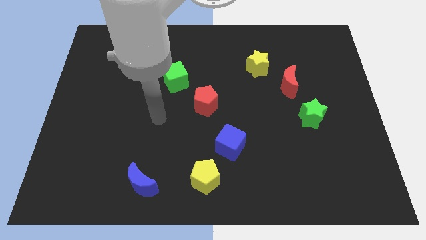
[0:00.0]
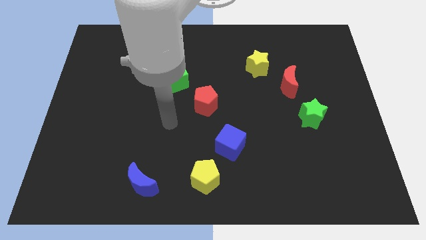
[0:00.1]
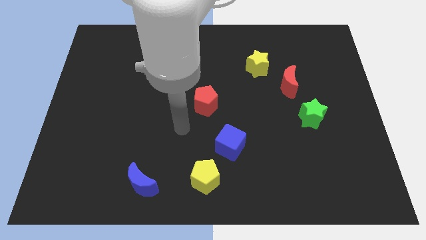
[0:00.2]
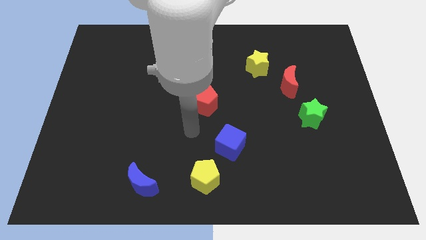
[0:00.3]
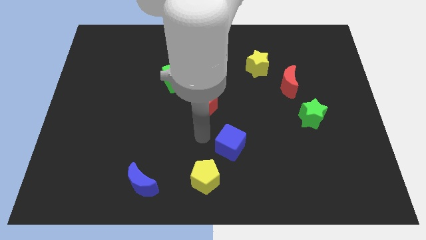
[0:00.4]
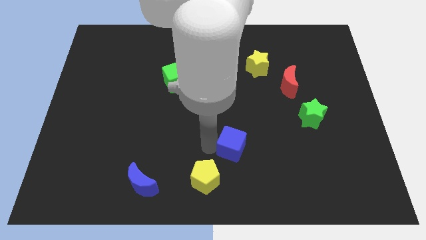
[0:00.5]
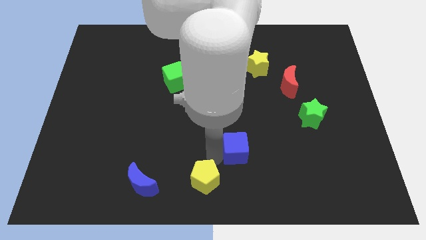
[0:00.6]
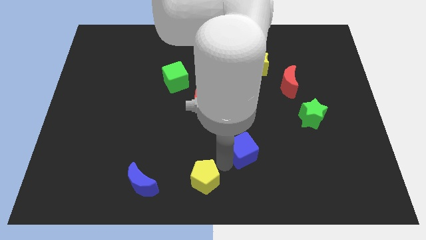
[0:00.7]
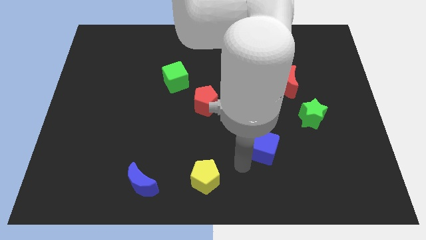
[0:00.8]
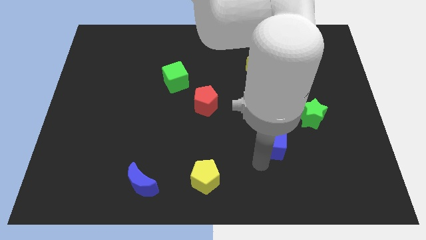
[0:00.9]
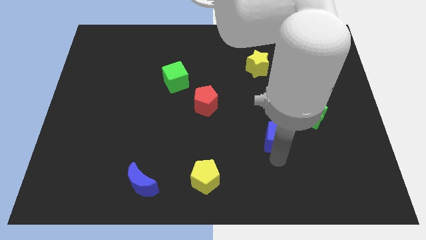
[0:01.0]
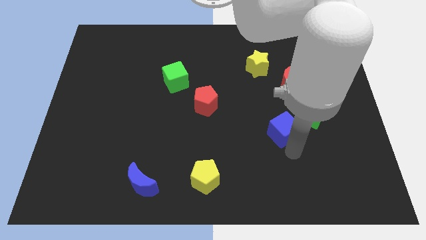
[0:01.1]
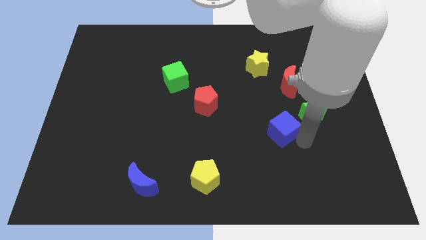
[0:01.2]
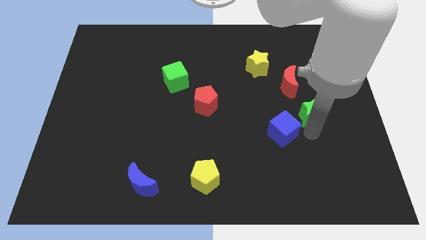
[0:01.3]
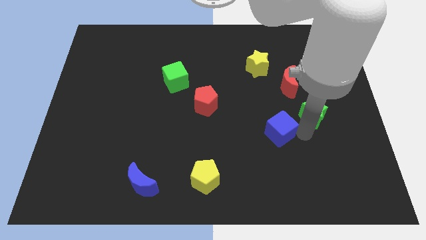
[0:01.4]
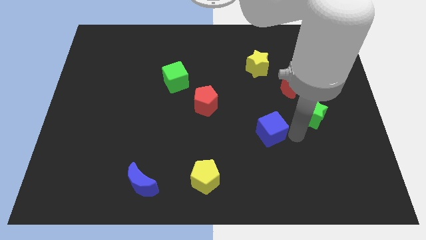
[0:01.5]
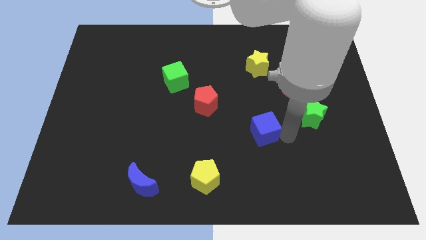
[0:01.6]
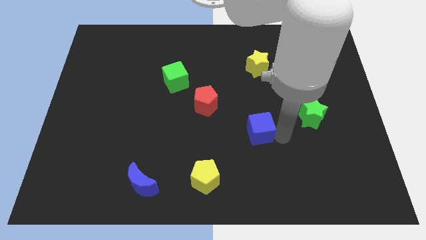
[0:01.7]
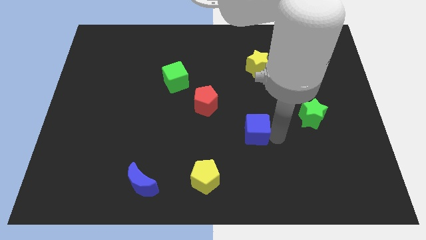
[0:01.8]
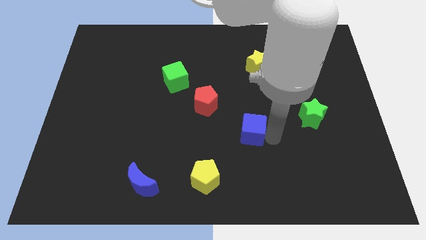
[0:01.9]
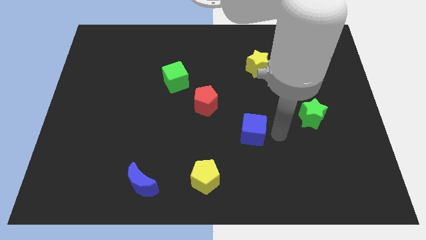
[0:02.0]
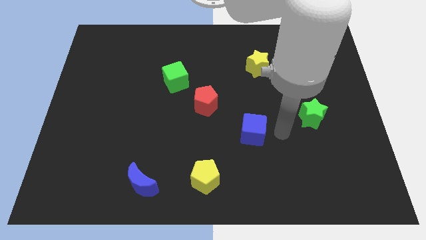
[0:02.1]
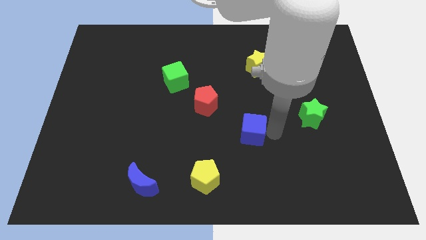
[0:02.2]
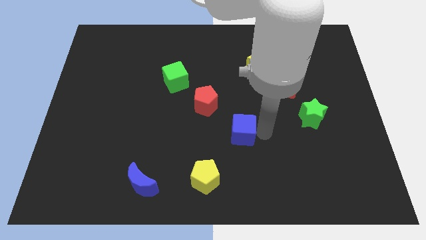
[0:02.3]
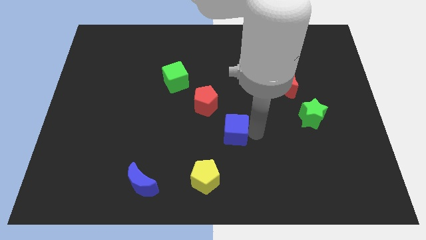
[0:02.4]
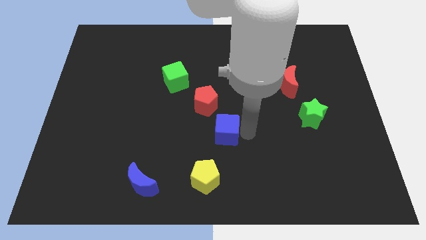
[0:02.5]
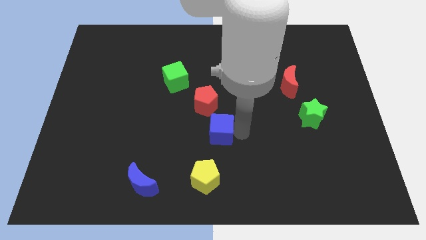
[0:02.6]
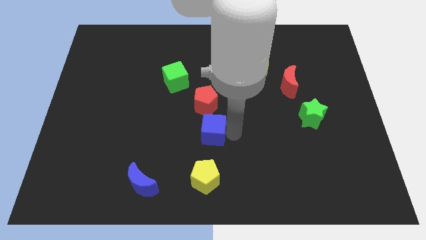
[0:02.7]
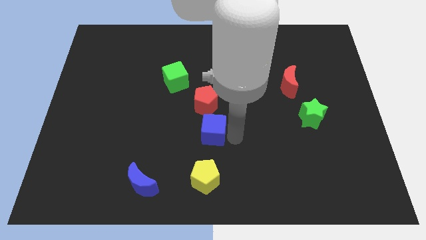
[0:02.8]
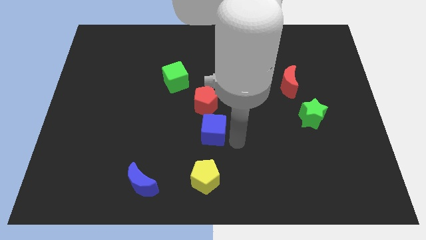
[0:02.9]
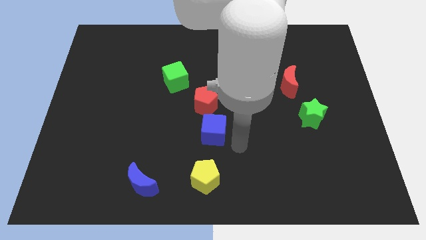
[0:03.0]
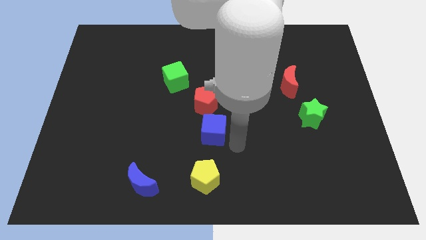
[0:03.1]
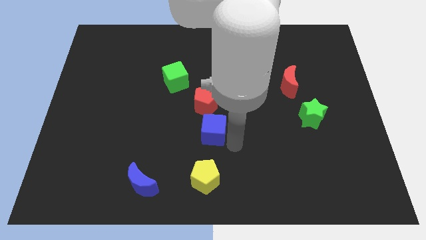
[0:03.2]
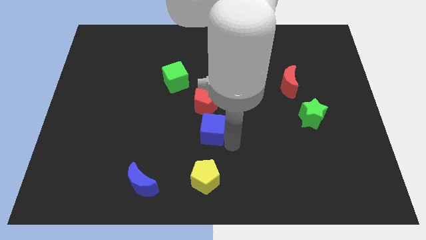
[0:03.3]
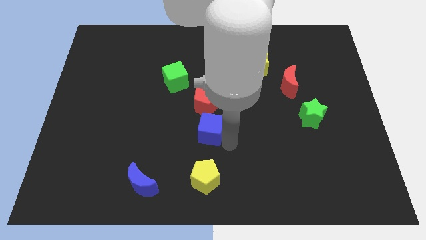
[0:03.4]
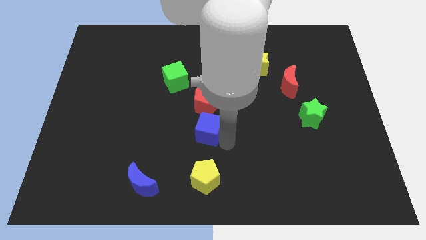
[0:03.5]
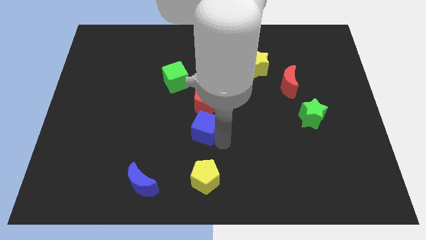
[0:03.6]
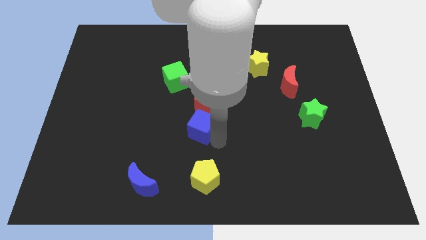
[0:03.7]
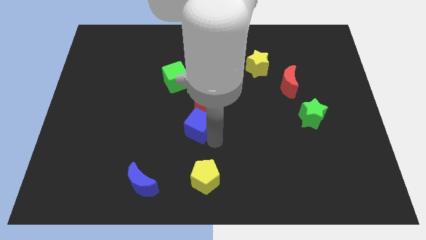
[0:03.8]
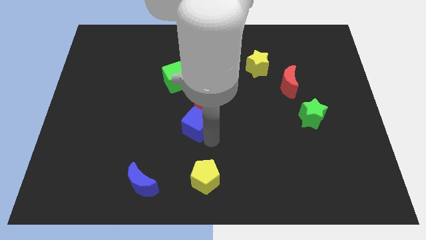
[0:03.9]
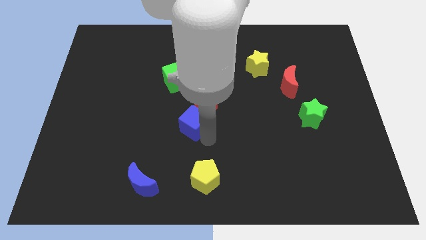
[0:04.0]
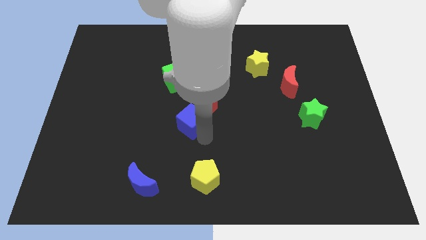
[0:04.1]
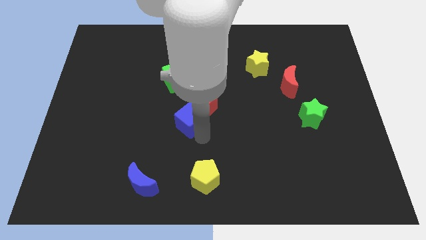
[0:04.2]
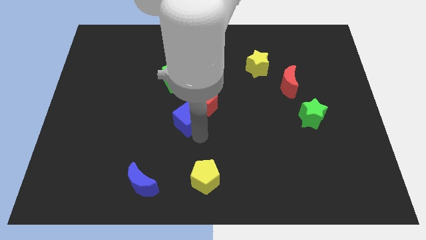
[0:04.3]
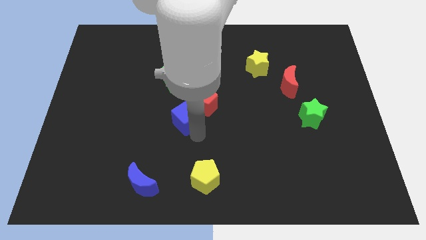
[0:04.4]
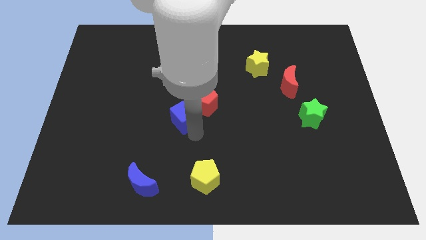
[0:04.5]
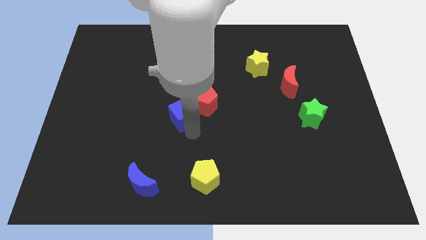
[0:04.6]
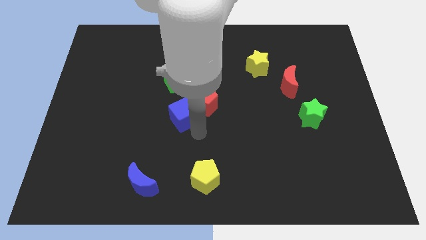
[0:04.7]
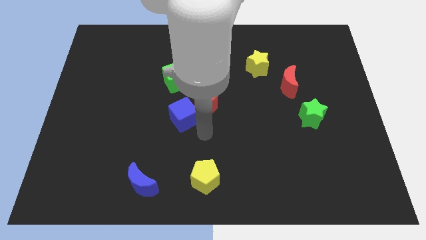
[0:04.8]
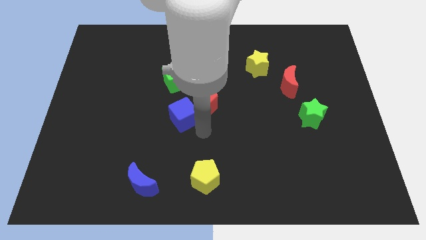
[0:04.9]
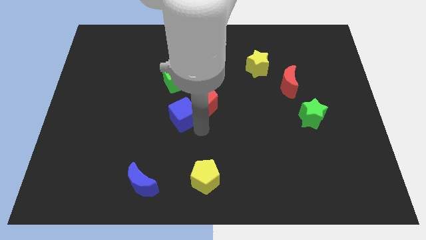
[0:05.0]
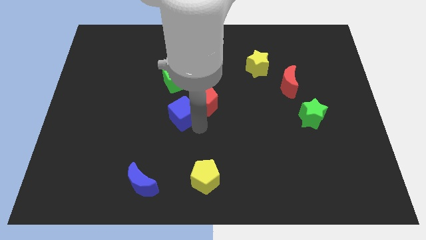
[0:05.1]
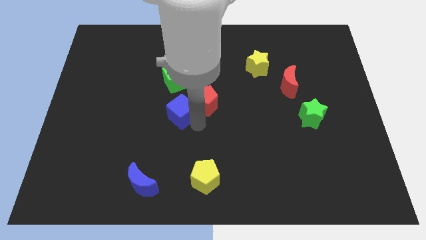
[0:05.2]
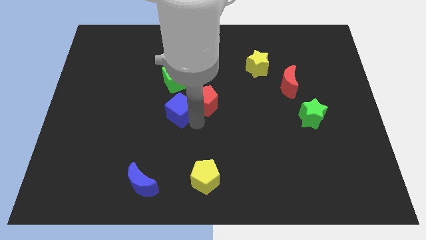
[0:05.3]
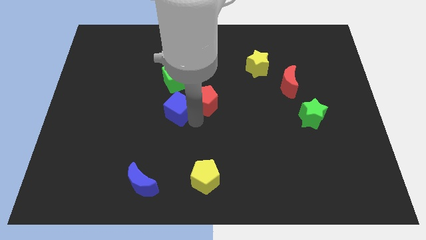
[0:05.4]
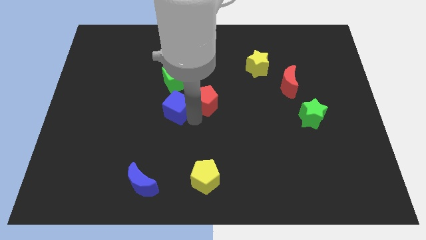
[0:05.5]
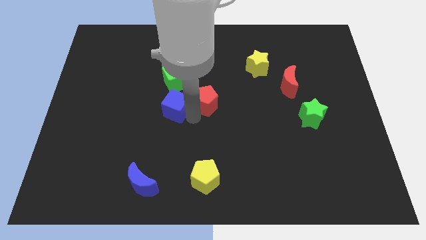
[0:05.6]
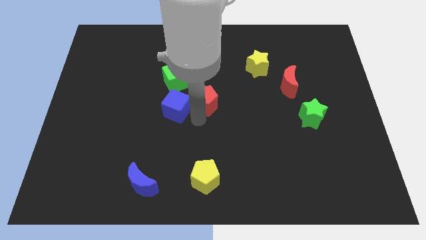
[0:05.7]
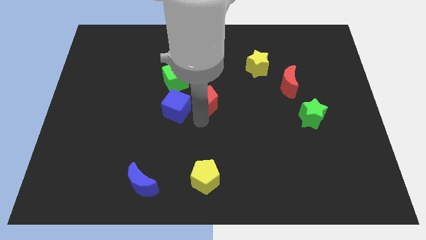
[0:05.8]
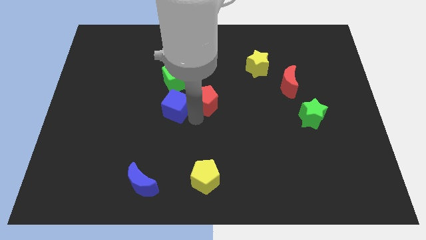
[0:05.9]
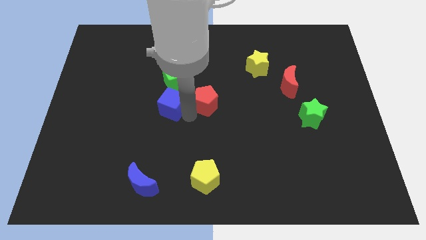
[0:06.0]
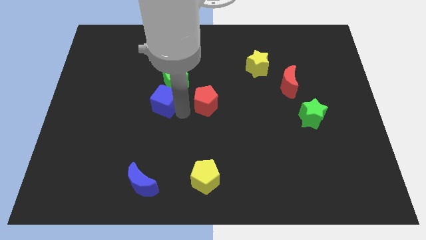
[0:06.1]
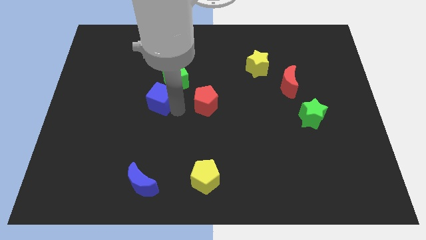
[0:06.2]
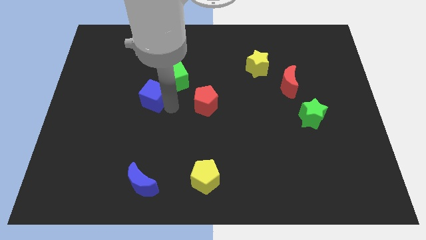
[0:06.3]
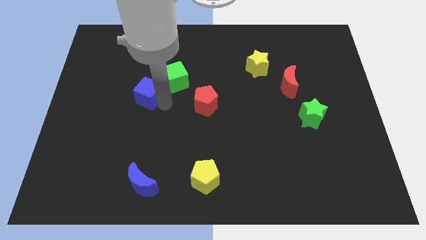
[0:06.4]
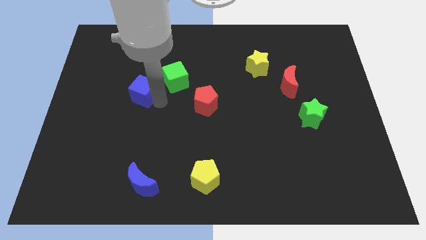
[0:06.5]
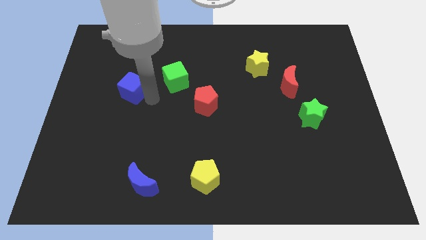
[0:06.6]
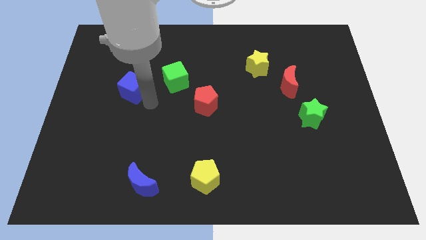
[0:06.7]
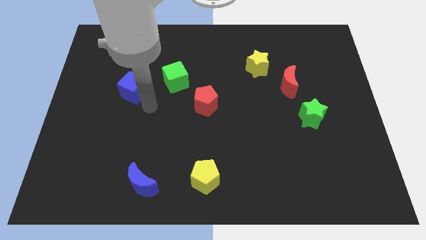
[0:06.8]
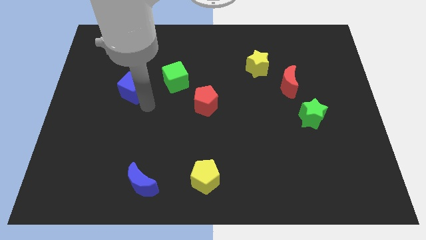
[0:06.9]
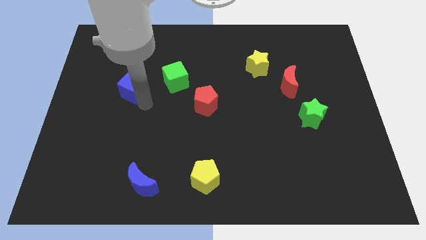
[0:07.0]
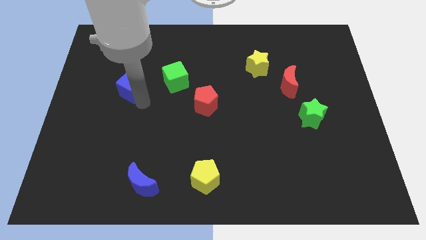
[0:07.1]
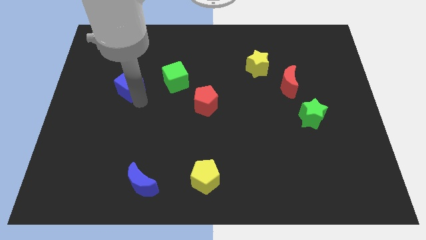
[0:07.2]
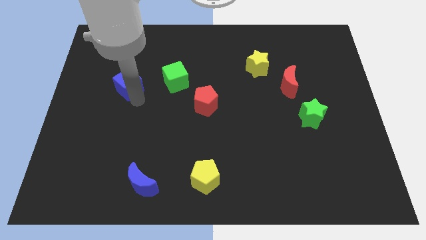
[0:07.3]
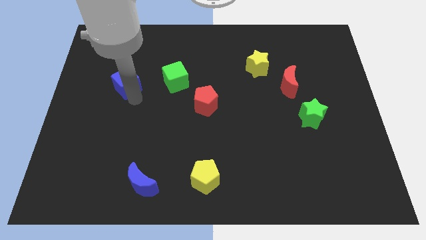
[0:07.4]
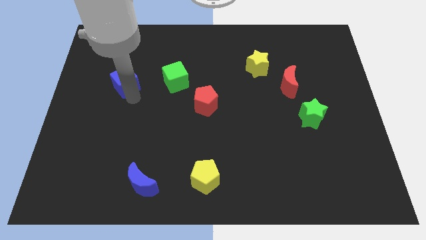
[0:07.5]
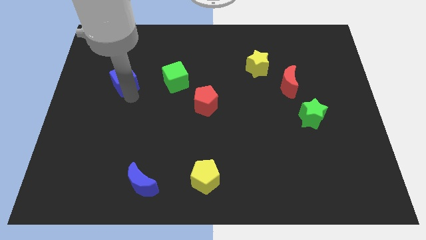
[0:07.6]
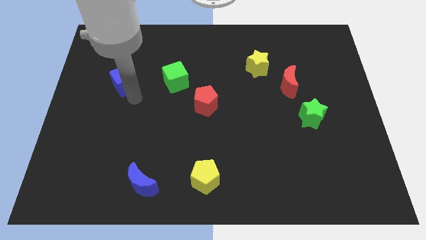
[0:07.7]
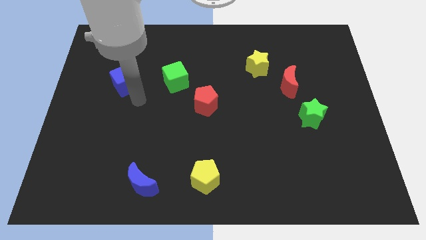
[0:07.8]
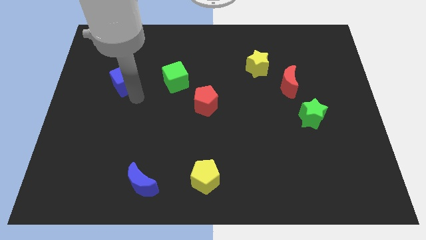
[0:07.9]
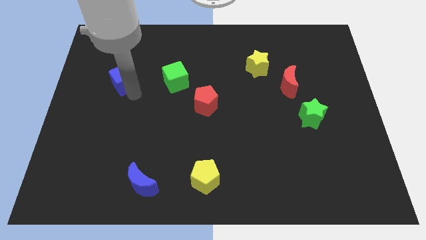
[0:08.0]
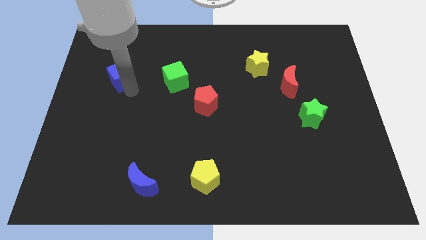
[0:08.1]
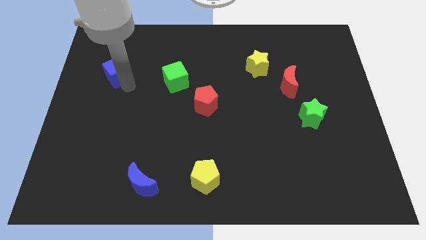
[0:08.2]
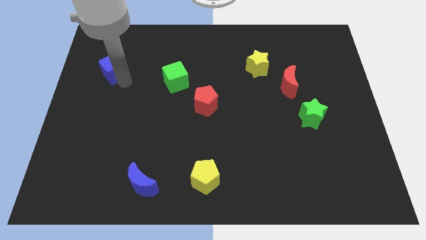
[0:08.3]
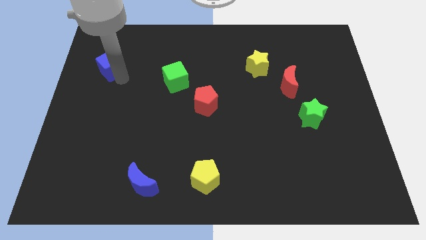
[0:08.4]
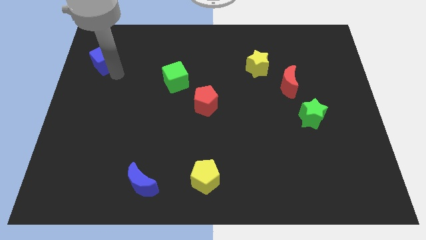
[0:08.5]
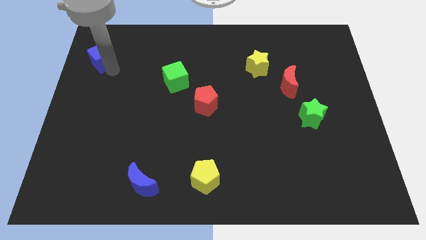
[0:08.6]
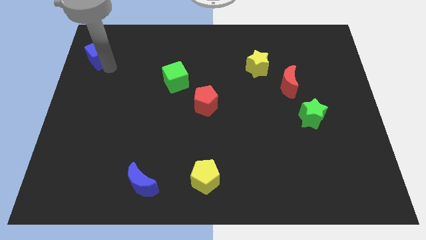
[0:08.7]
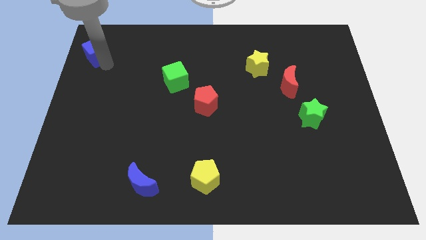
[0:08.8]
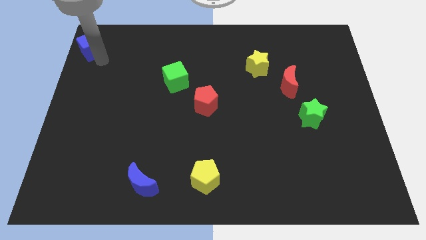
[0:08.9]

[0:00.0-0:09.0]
put the blue cube to the upper left corner
